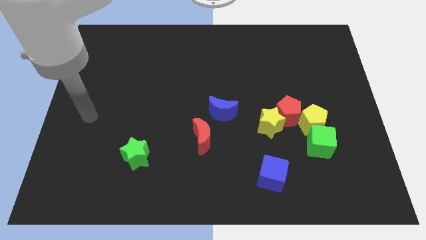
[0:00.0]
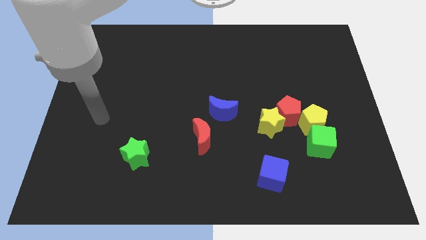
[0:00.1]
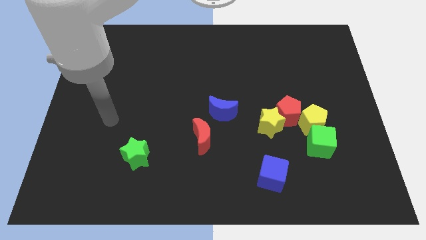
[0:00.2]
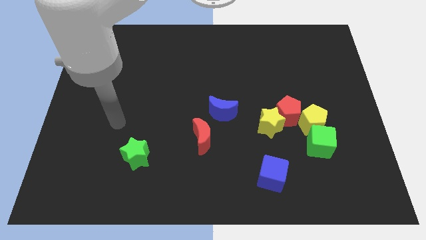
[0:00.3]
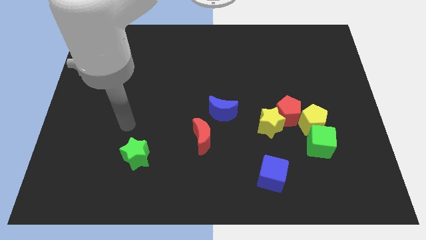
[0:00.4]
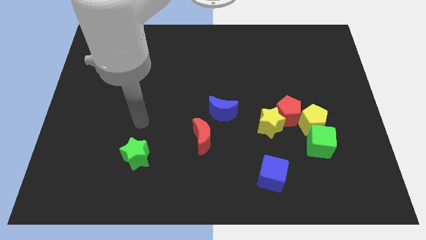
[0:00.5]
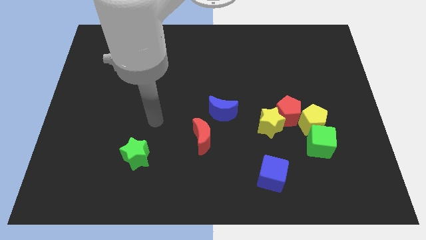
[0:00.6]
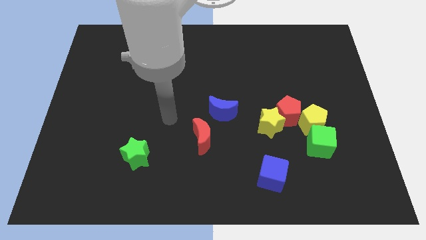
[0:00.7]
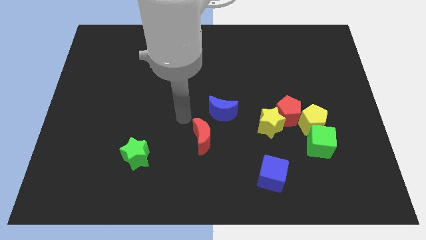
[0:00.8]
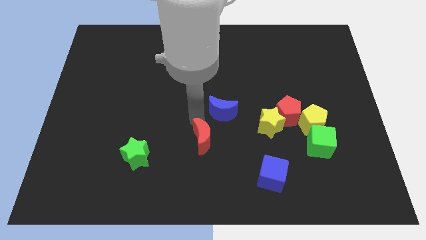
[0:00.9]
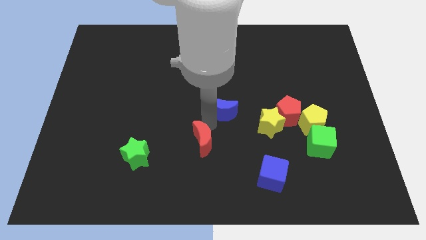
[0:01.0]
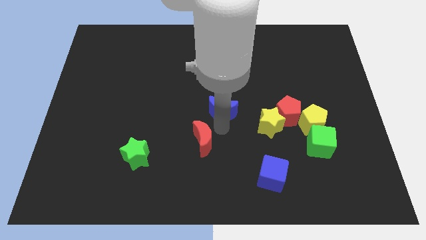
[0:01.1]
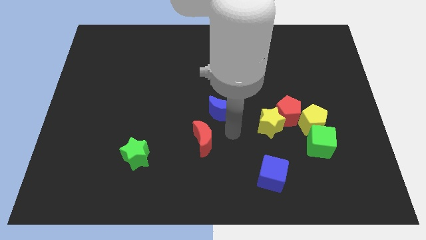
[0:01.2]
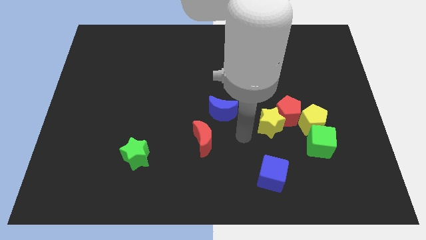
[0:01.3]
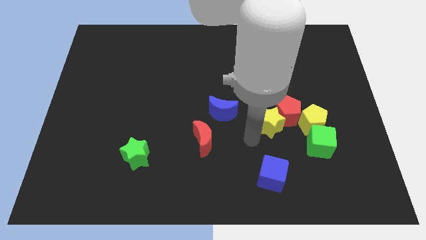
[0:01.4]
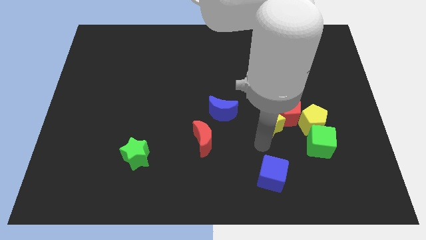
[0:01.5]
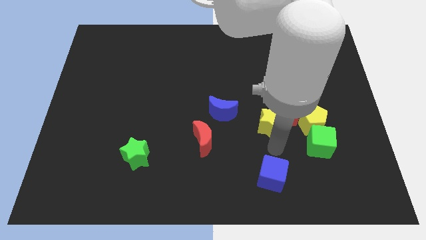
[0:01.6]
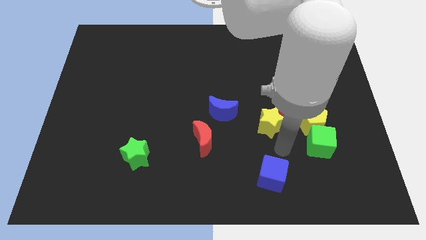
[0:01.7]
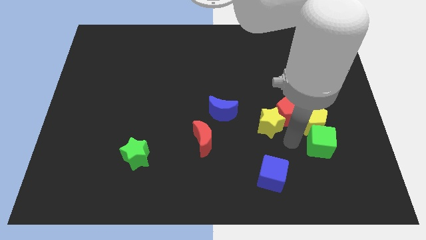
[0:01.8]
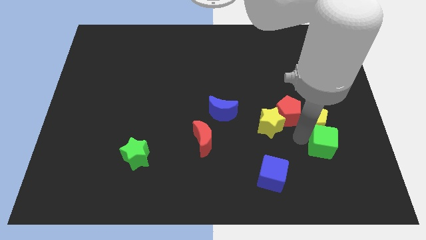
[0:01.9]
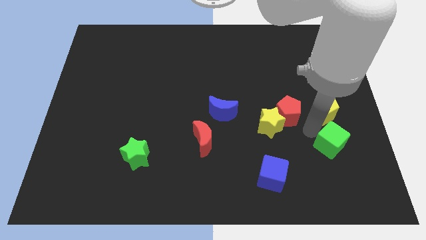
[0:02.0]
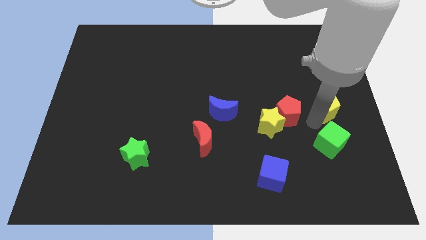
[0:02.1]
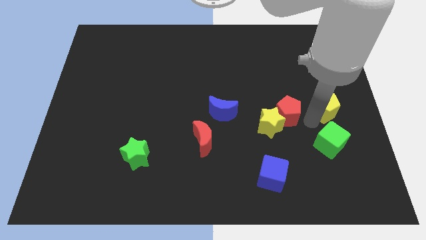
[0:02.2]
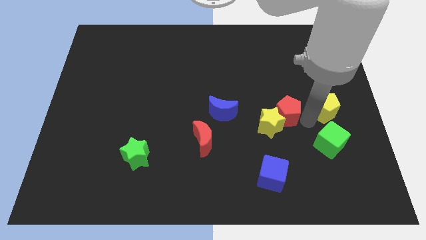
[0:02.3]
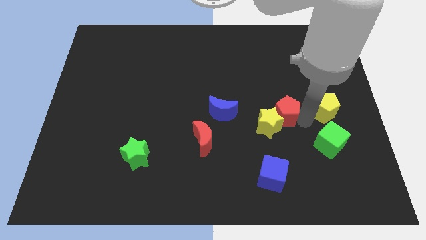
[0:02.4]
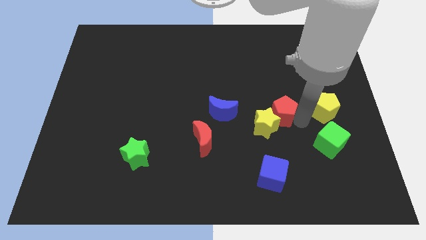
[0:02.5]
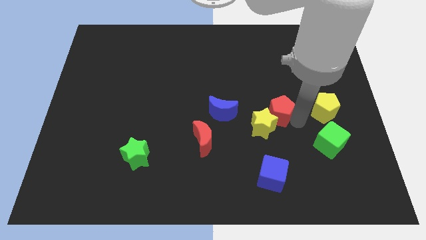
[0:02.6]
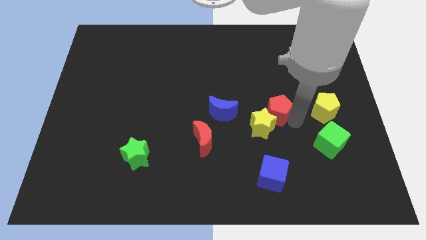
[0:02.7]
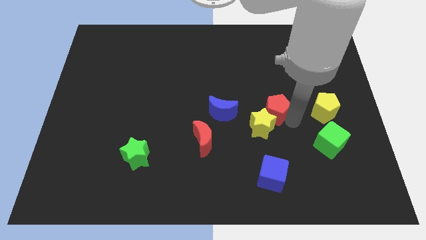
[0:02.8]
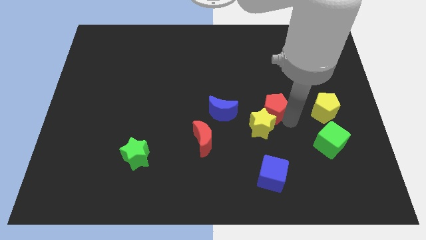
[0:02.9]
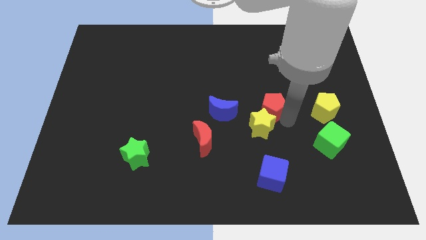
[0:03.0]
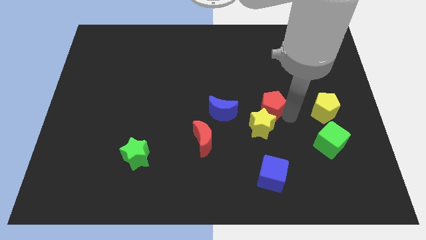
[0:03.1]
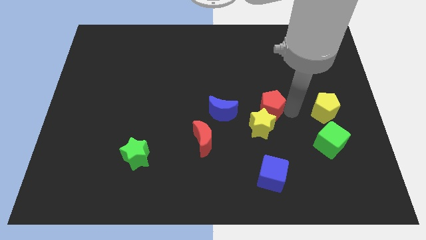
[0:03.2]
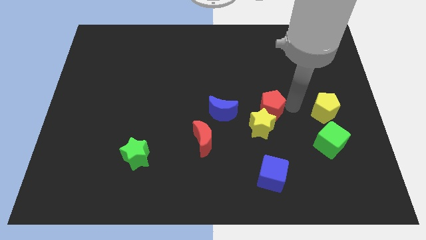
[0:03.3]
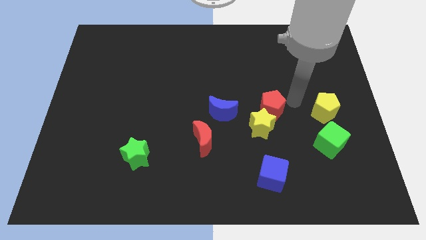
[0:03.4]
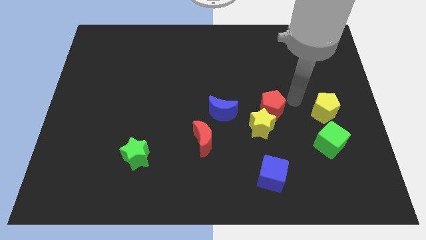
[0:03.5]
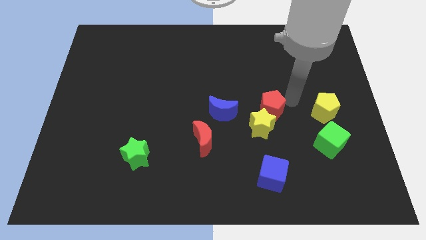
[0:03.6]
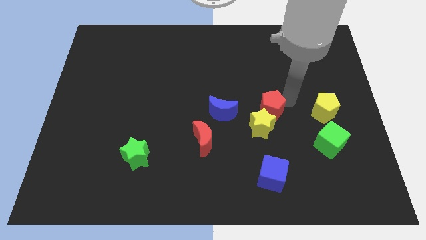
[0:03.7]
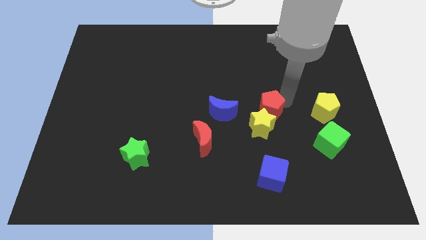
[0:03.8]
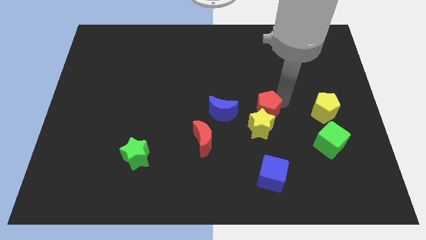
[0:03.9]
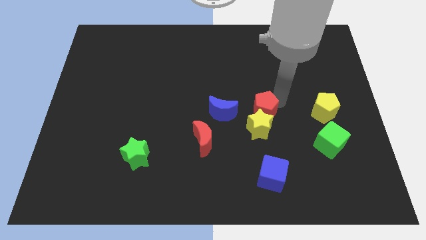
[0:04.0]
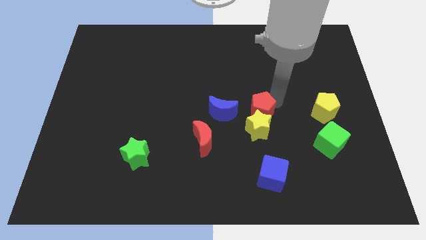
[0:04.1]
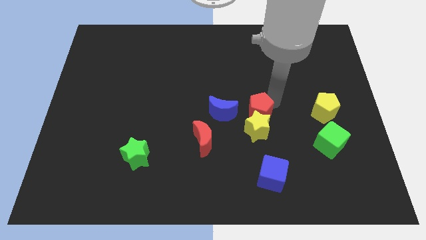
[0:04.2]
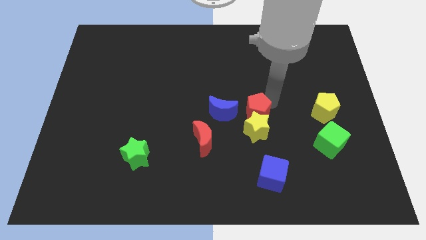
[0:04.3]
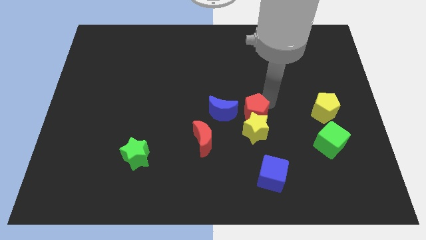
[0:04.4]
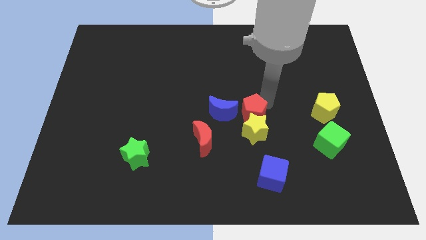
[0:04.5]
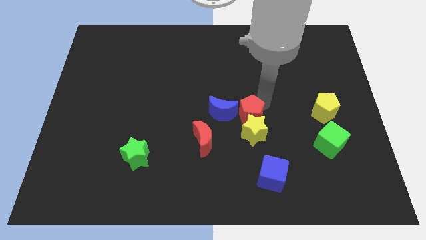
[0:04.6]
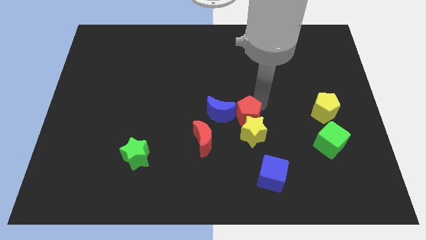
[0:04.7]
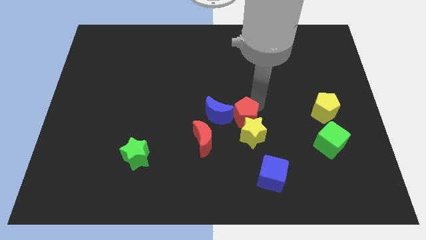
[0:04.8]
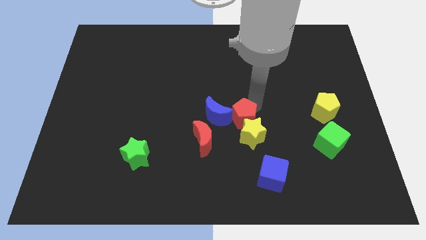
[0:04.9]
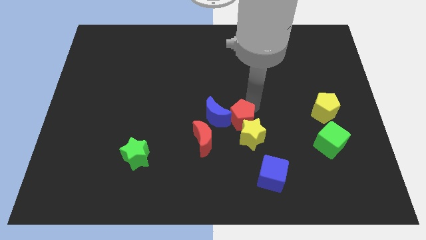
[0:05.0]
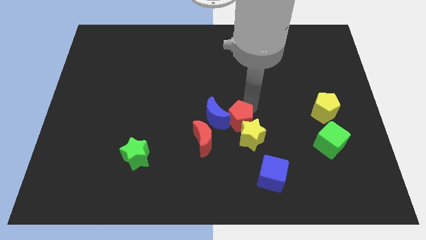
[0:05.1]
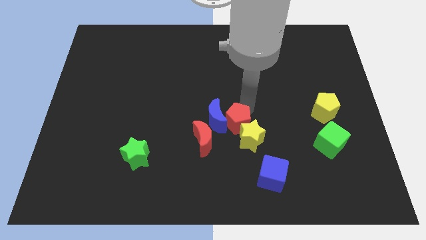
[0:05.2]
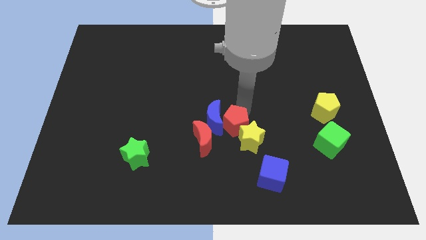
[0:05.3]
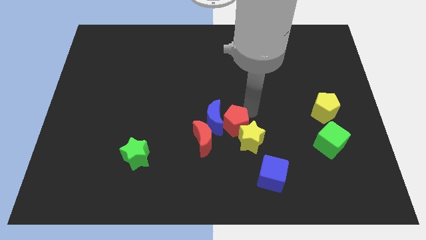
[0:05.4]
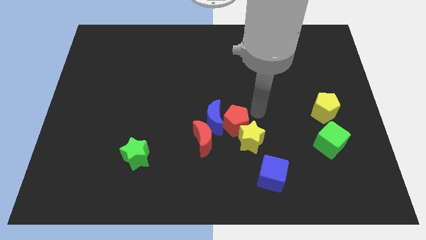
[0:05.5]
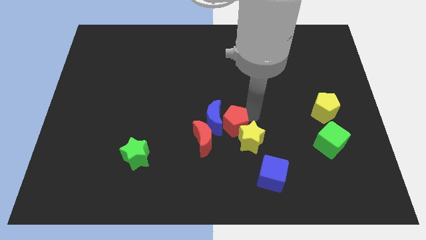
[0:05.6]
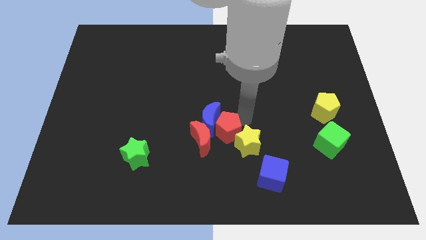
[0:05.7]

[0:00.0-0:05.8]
put the red pentagon towards the red moon

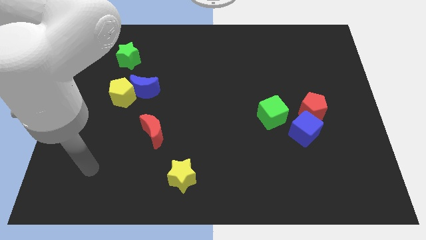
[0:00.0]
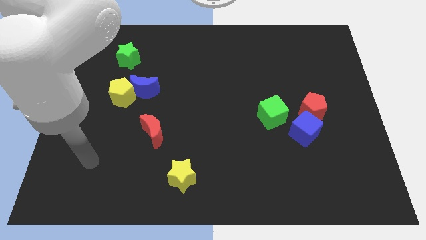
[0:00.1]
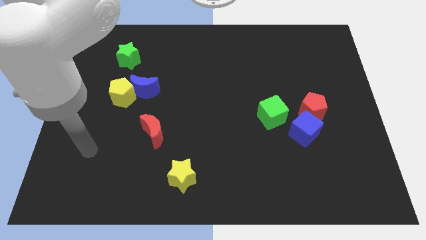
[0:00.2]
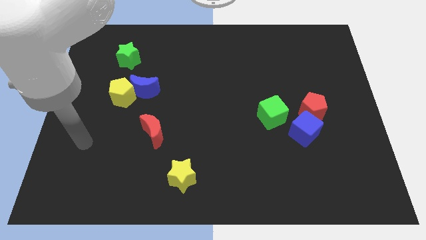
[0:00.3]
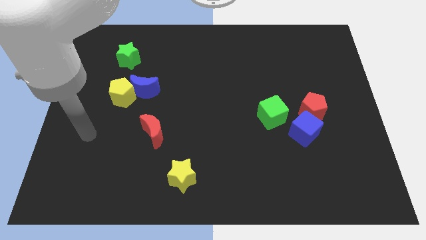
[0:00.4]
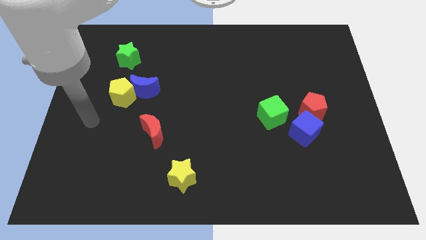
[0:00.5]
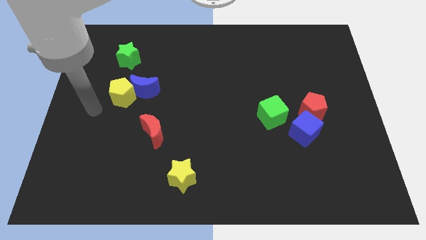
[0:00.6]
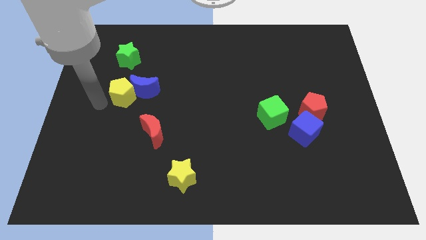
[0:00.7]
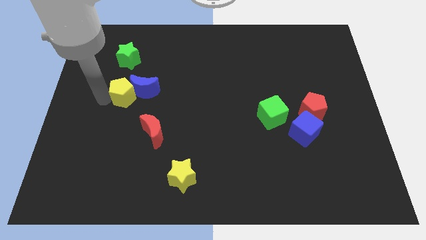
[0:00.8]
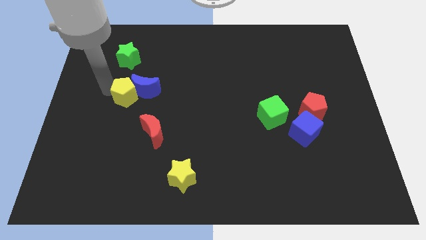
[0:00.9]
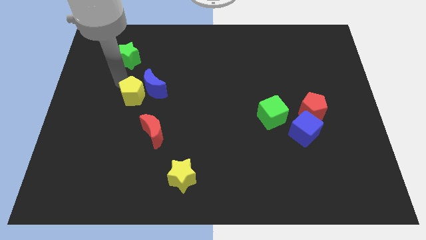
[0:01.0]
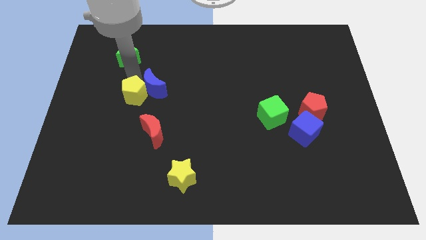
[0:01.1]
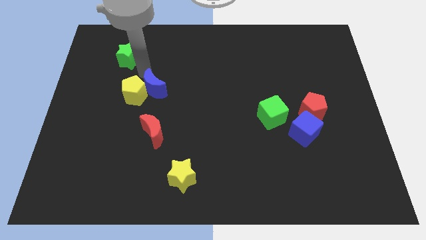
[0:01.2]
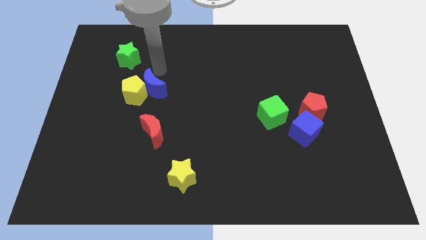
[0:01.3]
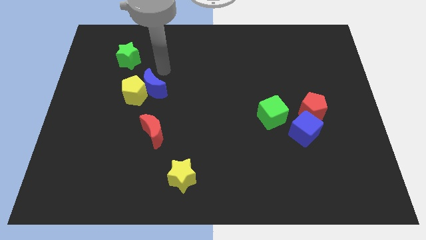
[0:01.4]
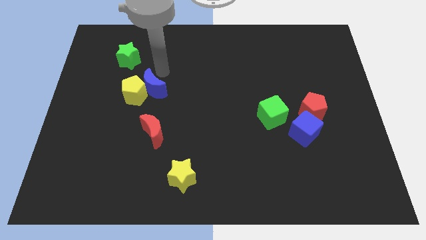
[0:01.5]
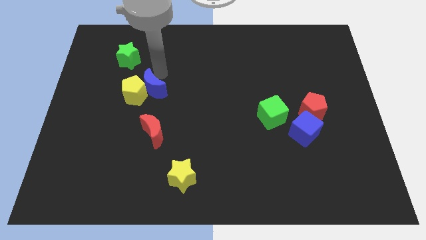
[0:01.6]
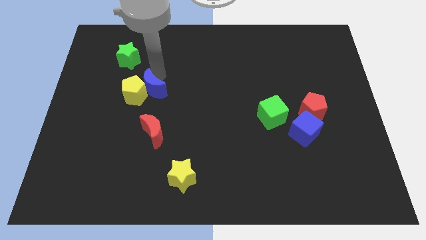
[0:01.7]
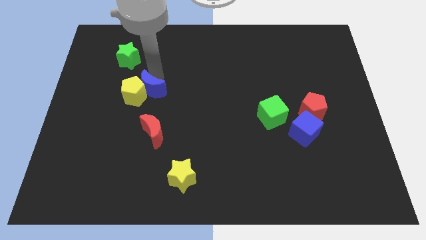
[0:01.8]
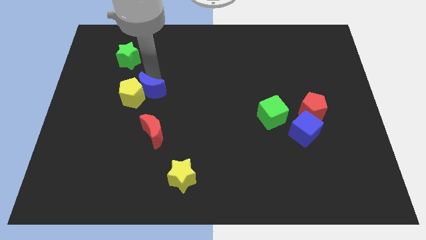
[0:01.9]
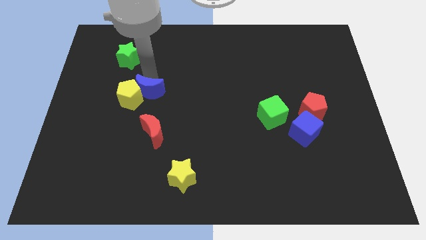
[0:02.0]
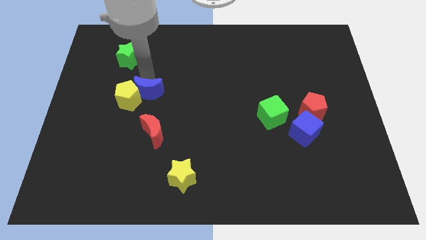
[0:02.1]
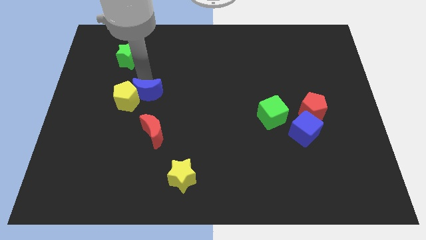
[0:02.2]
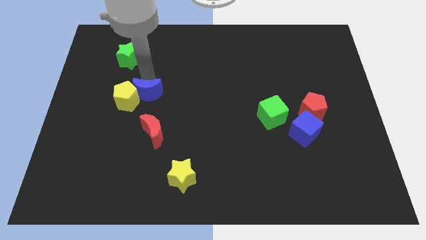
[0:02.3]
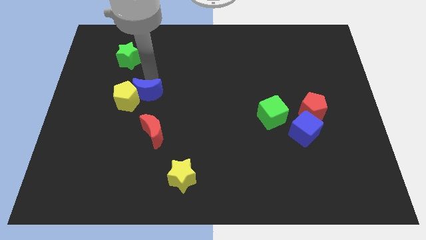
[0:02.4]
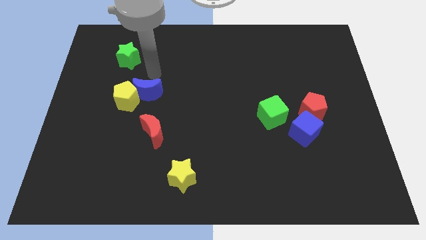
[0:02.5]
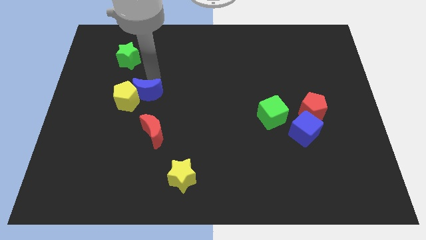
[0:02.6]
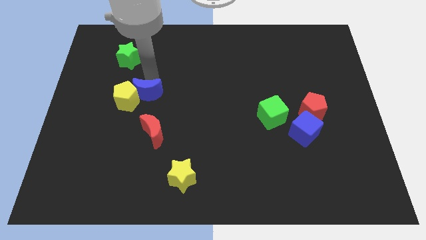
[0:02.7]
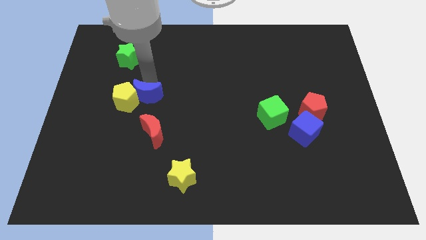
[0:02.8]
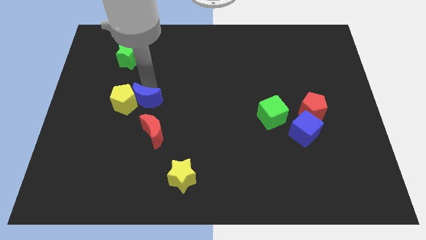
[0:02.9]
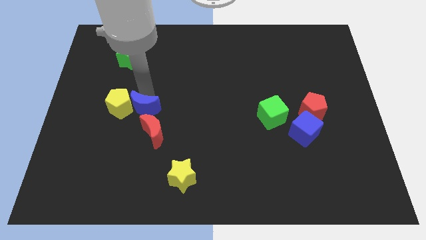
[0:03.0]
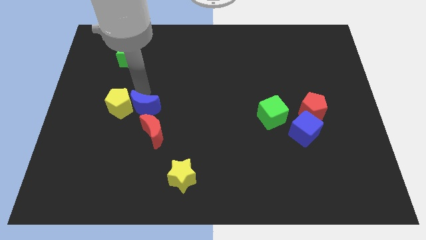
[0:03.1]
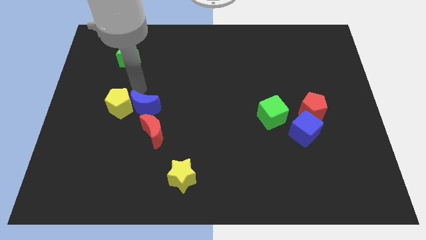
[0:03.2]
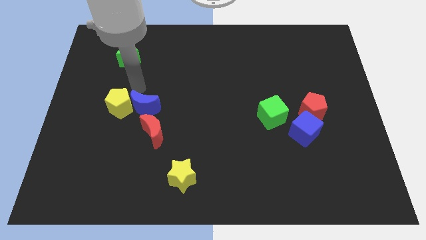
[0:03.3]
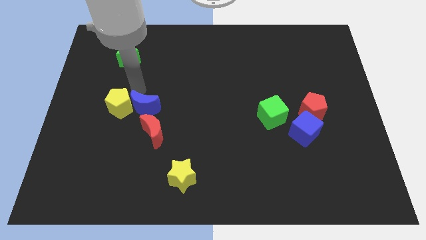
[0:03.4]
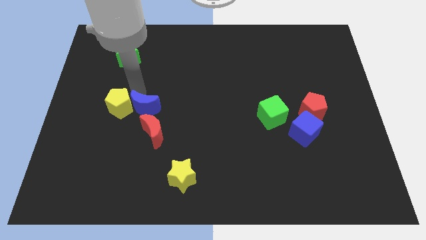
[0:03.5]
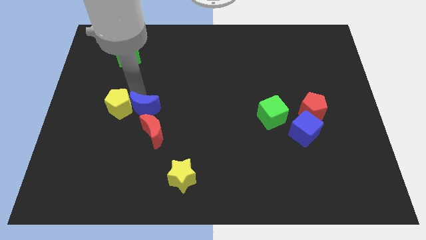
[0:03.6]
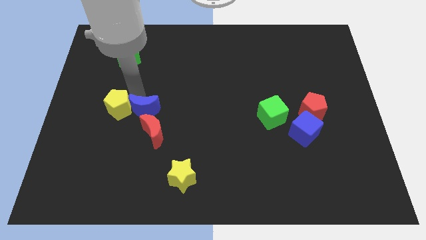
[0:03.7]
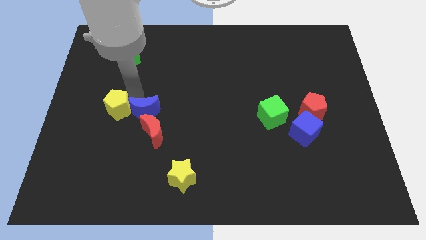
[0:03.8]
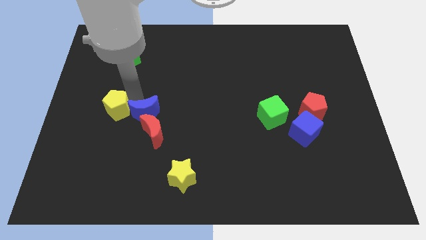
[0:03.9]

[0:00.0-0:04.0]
slide the blue moon towards the red moon
